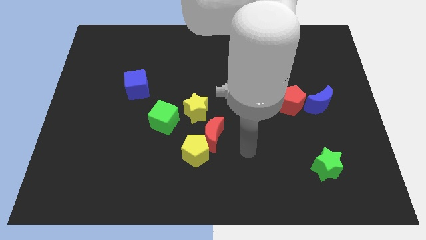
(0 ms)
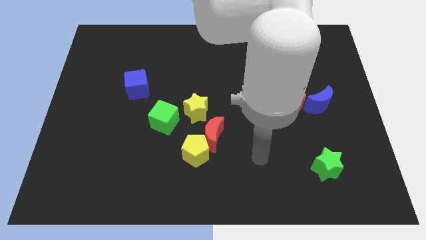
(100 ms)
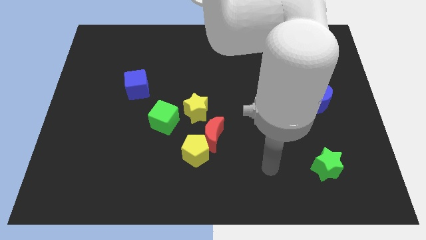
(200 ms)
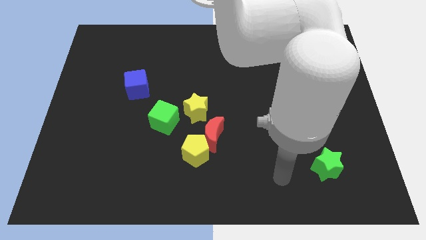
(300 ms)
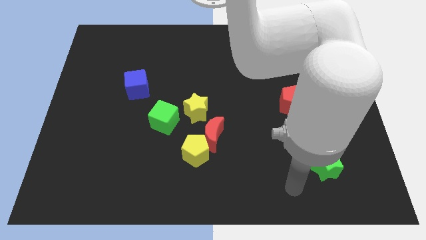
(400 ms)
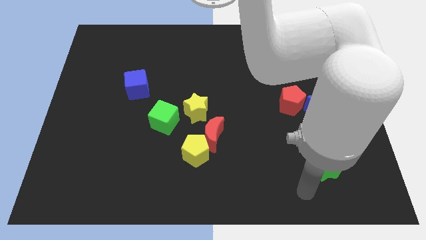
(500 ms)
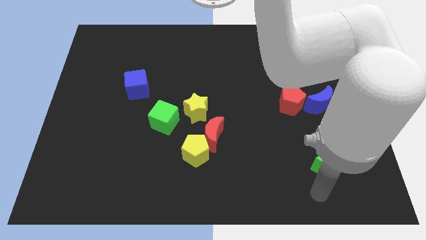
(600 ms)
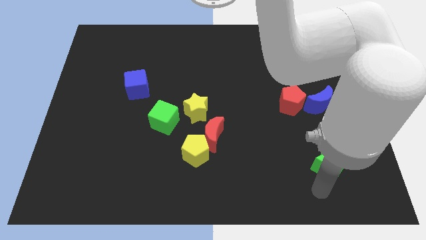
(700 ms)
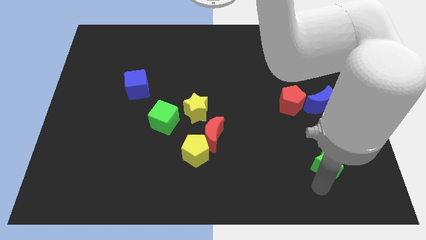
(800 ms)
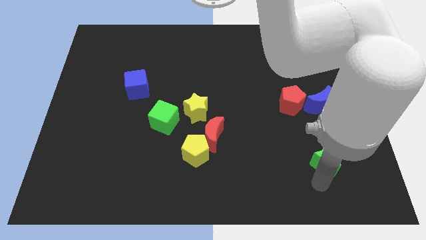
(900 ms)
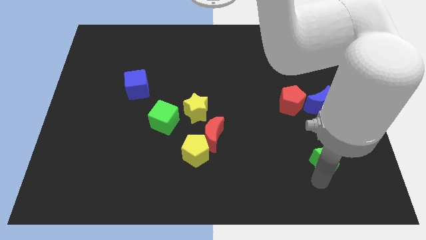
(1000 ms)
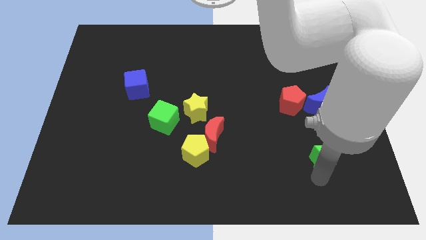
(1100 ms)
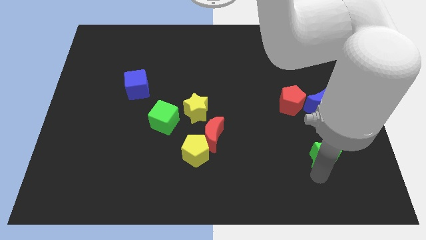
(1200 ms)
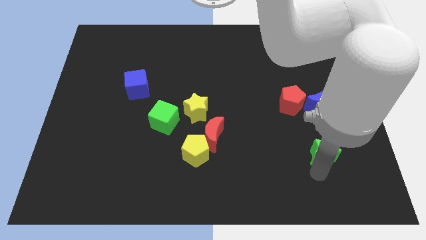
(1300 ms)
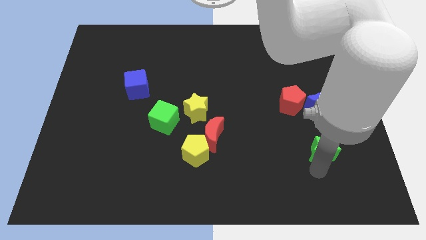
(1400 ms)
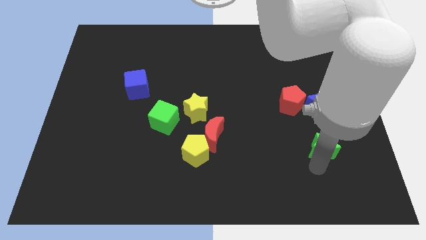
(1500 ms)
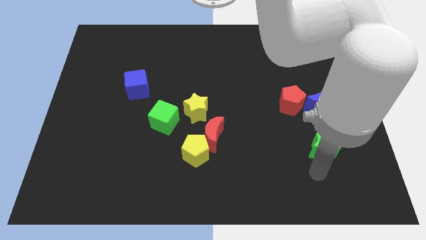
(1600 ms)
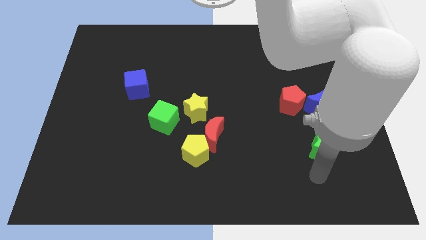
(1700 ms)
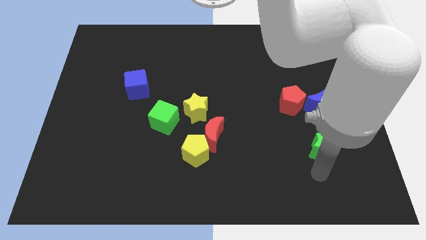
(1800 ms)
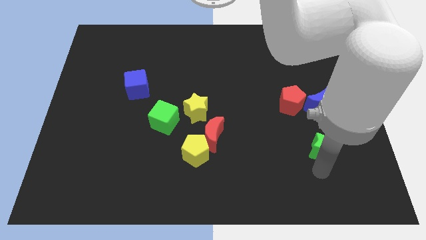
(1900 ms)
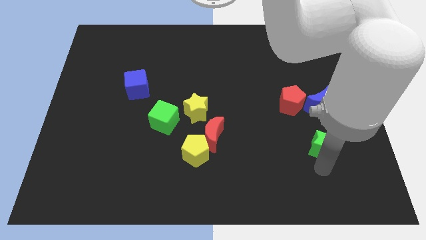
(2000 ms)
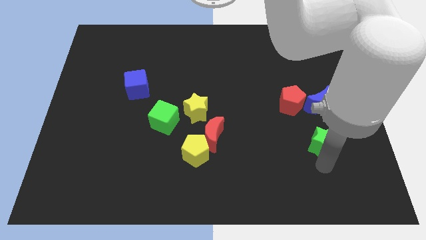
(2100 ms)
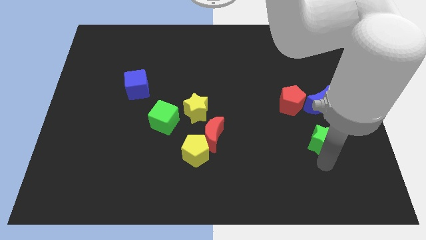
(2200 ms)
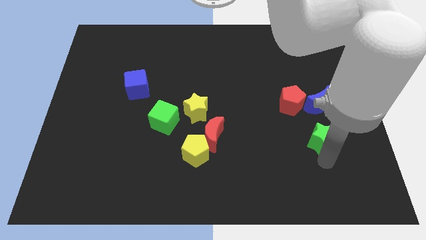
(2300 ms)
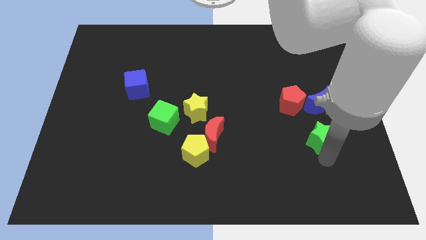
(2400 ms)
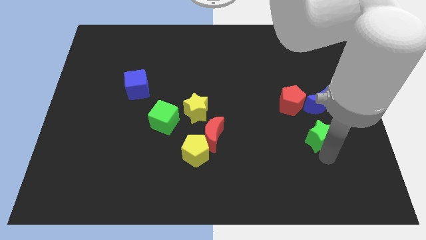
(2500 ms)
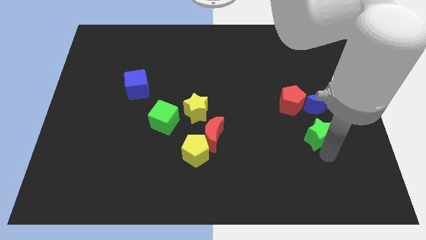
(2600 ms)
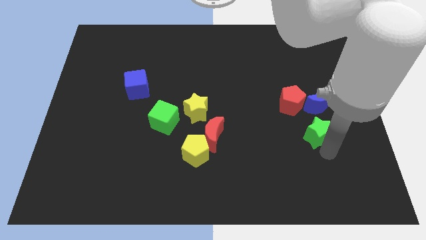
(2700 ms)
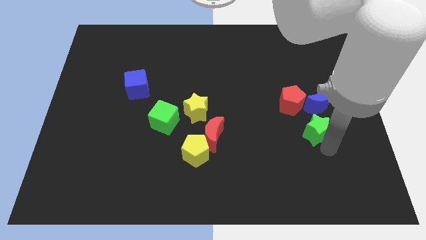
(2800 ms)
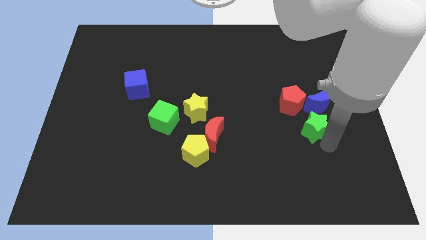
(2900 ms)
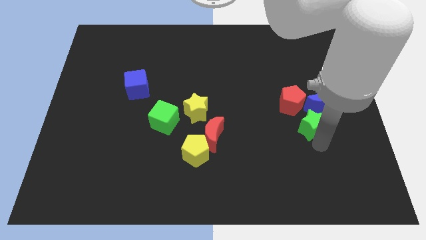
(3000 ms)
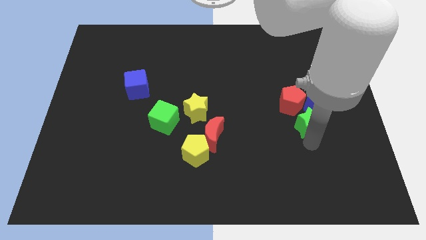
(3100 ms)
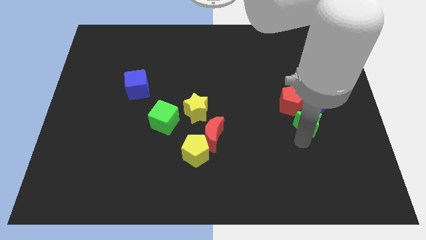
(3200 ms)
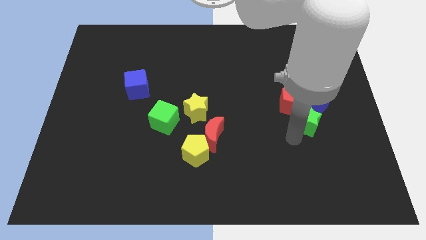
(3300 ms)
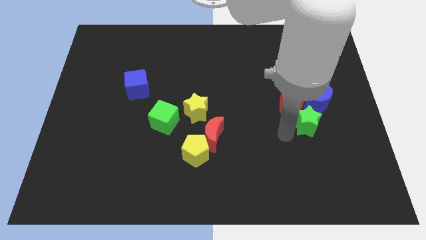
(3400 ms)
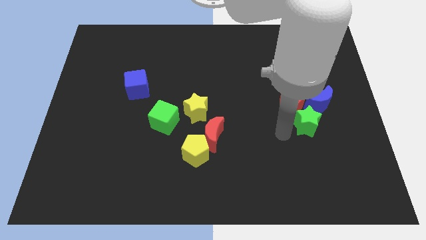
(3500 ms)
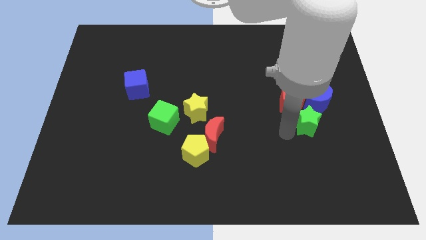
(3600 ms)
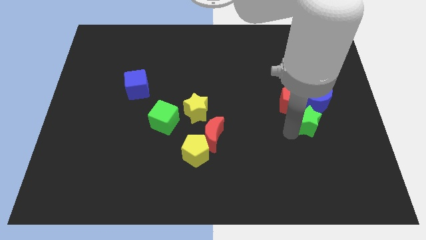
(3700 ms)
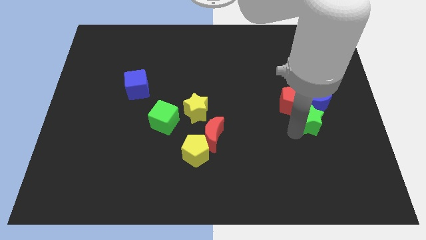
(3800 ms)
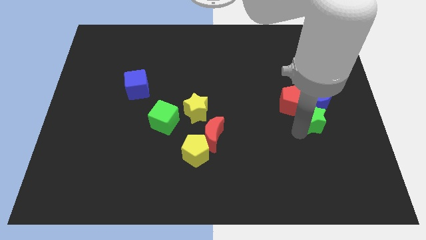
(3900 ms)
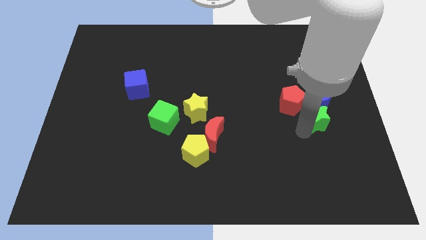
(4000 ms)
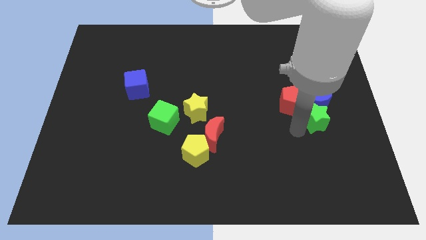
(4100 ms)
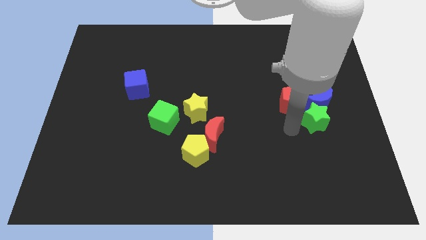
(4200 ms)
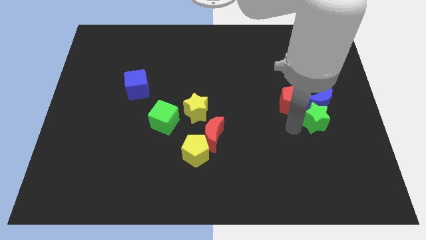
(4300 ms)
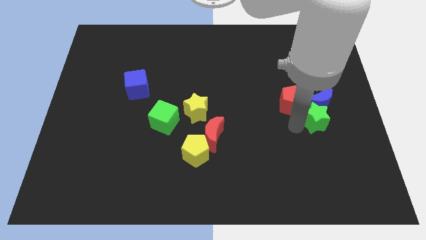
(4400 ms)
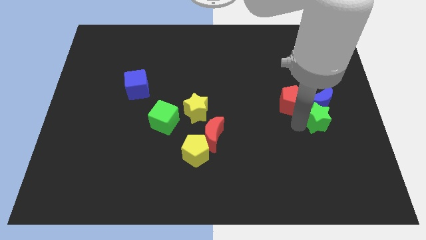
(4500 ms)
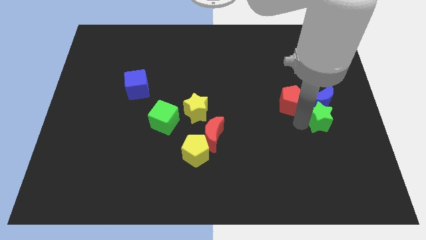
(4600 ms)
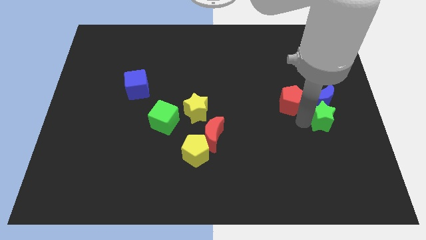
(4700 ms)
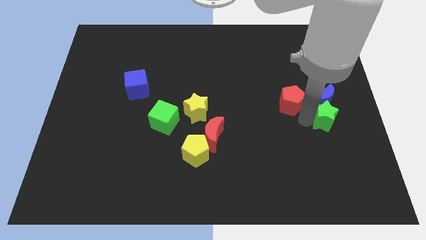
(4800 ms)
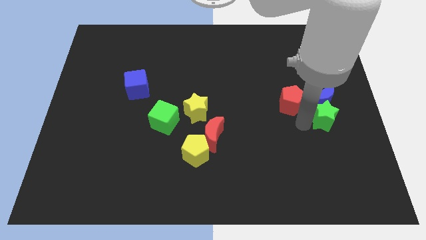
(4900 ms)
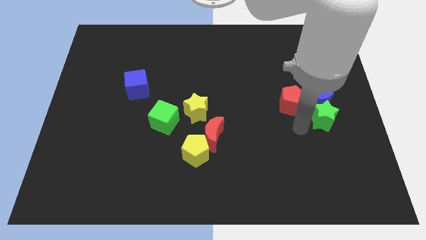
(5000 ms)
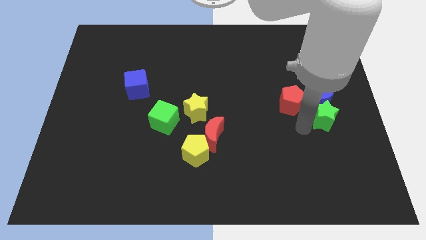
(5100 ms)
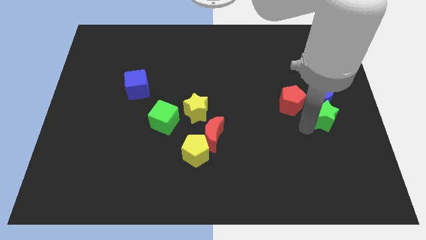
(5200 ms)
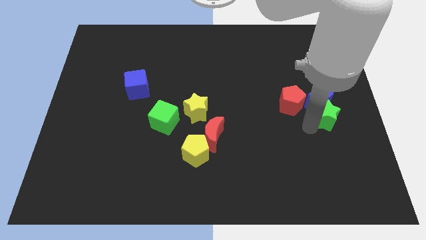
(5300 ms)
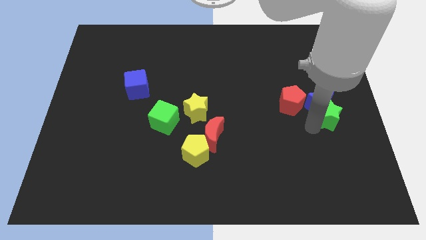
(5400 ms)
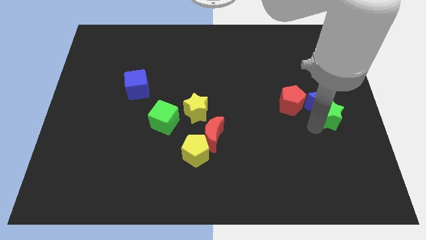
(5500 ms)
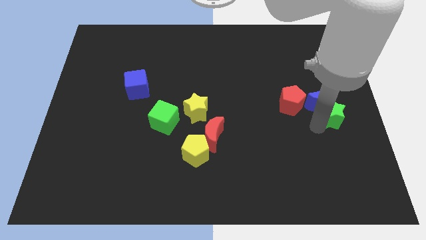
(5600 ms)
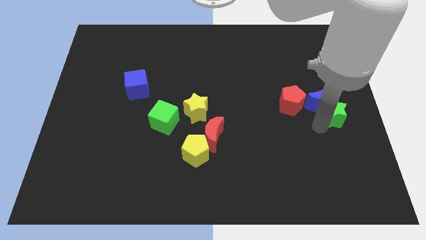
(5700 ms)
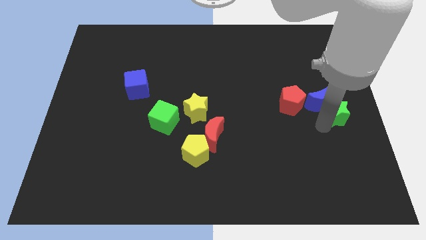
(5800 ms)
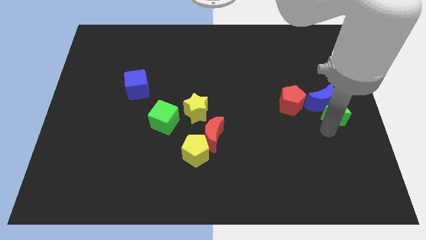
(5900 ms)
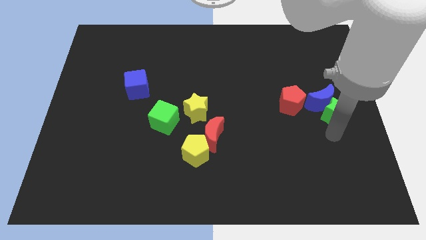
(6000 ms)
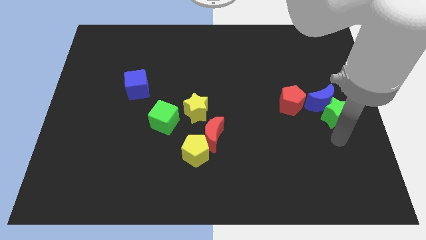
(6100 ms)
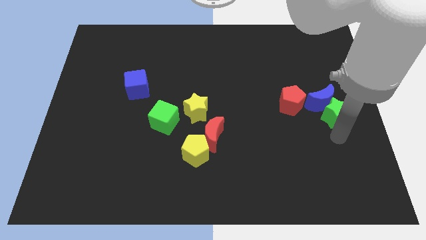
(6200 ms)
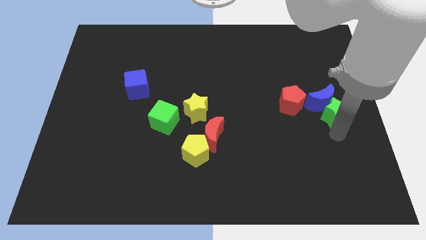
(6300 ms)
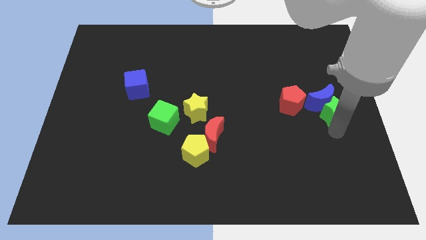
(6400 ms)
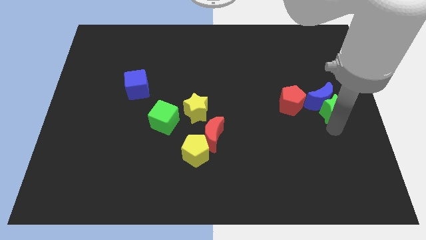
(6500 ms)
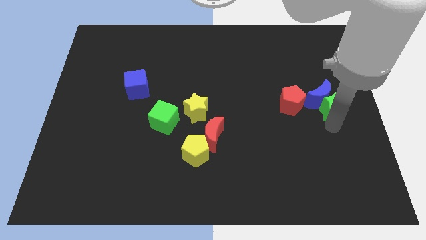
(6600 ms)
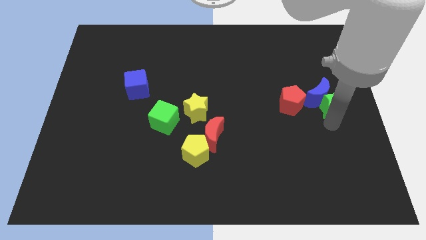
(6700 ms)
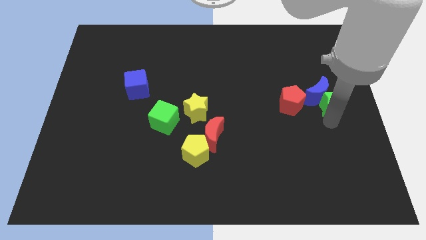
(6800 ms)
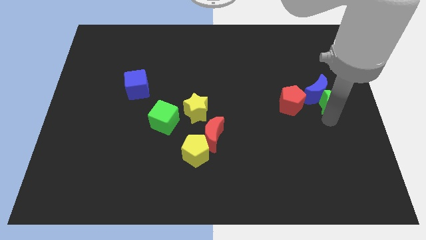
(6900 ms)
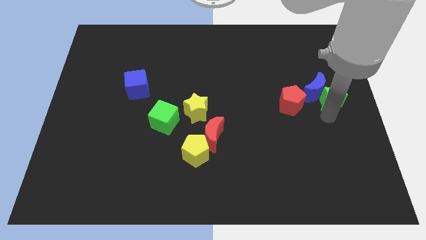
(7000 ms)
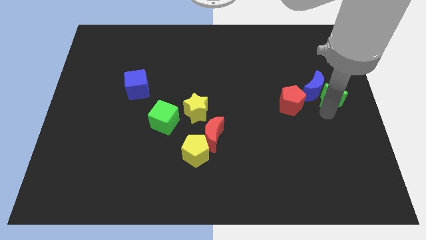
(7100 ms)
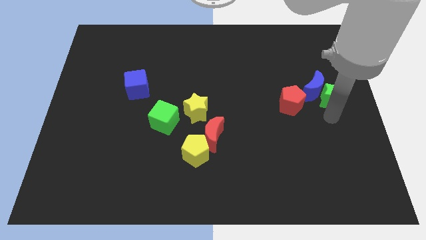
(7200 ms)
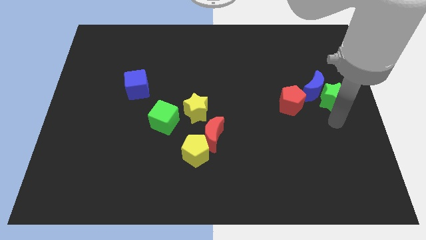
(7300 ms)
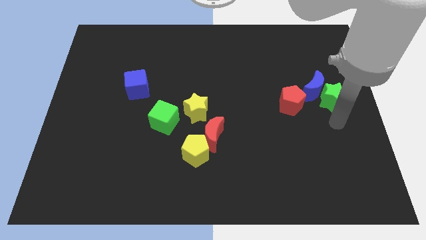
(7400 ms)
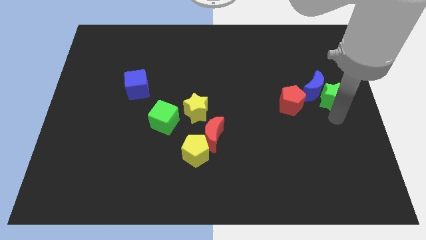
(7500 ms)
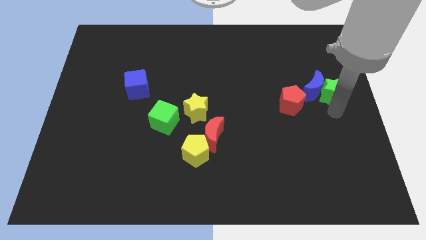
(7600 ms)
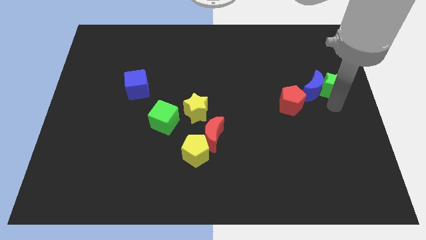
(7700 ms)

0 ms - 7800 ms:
move the green star upwards
